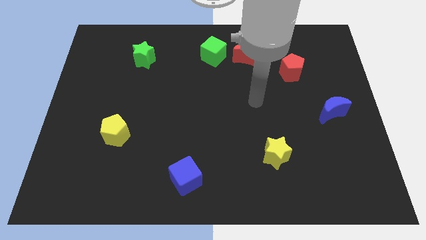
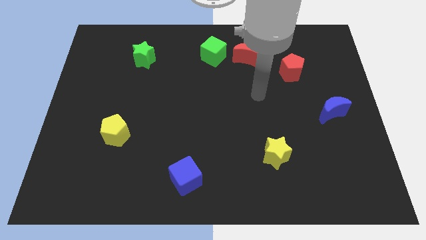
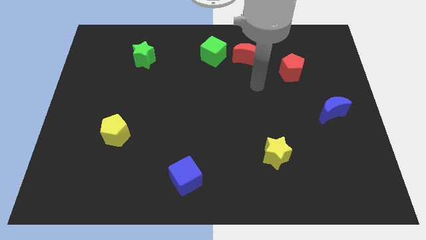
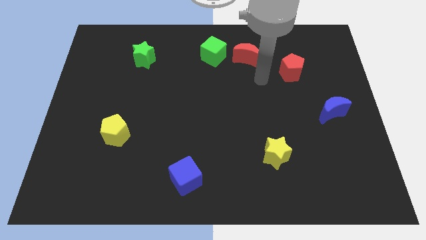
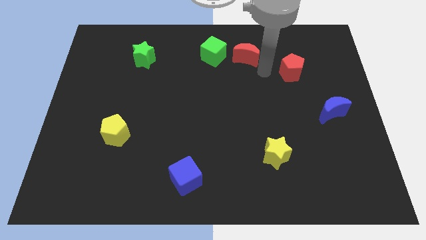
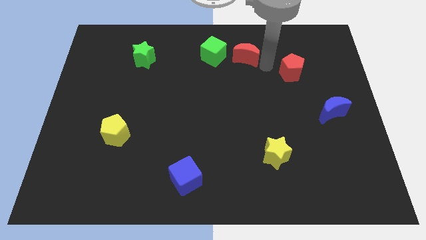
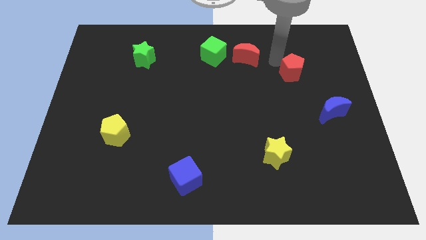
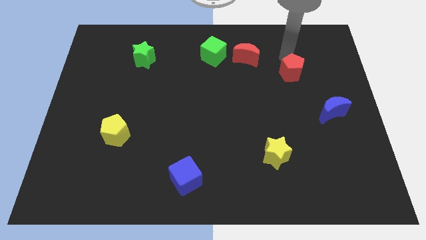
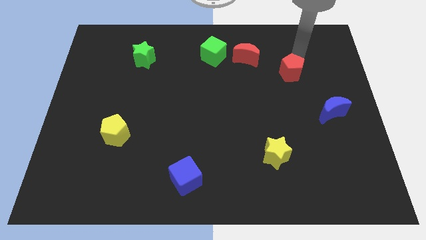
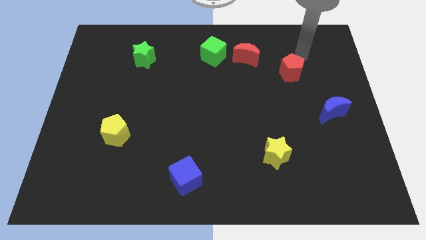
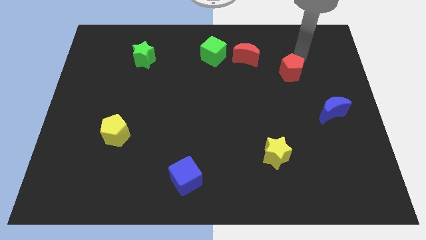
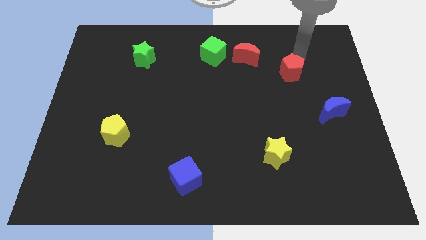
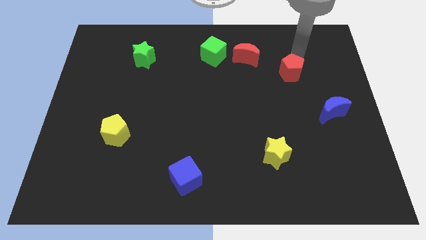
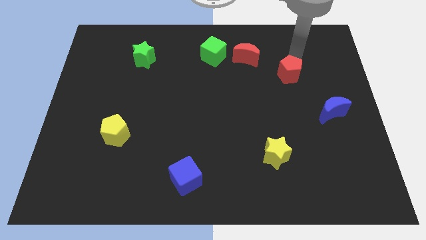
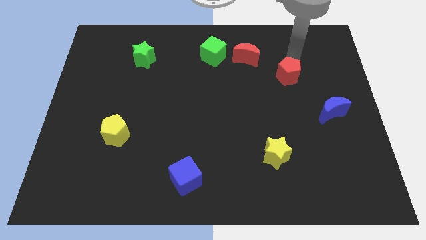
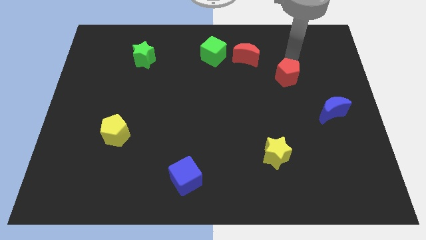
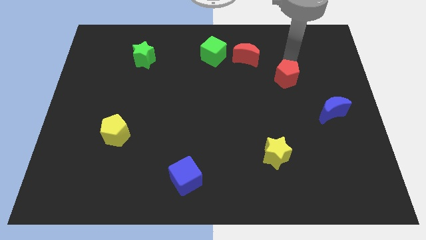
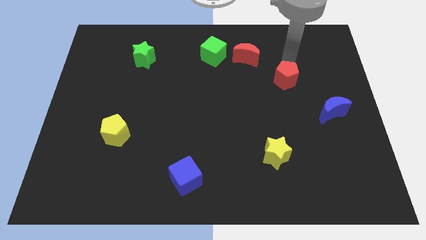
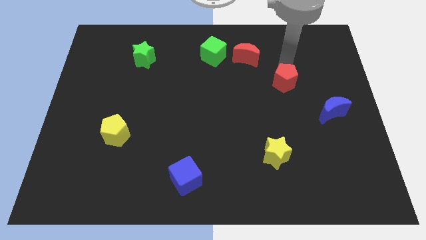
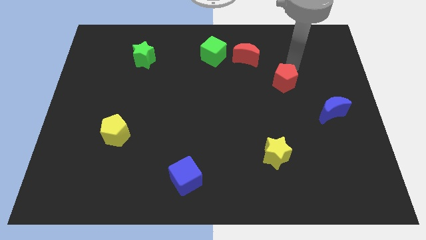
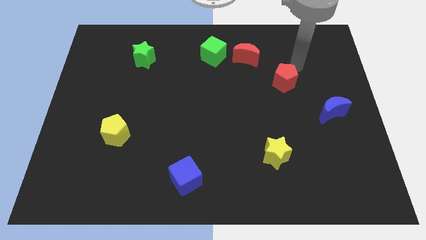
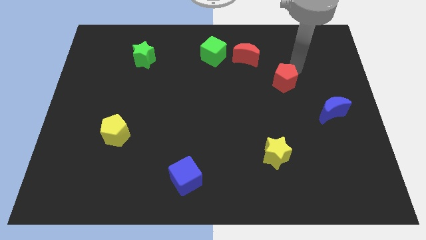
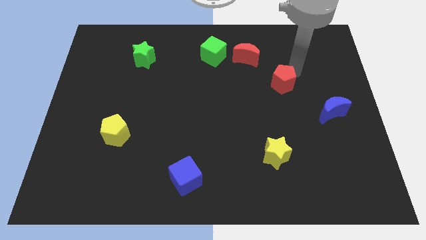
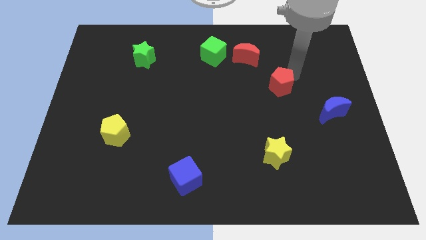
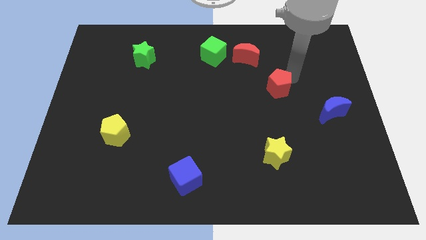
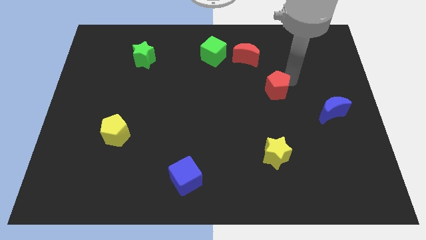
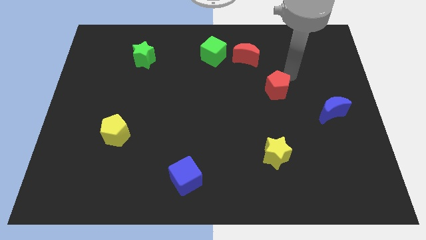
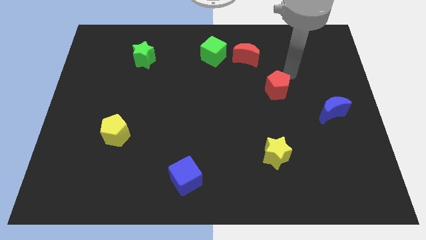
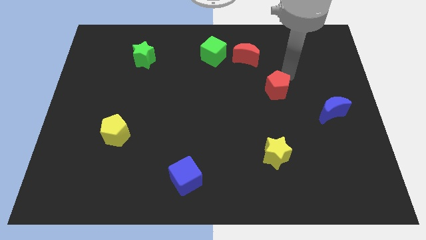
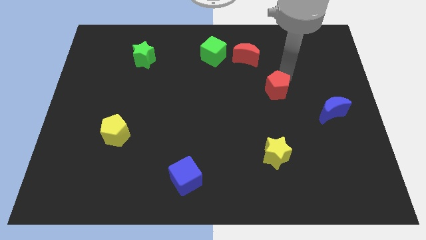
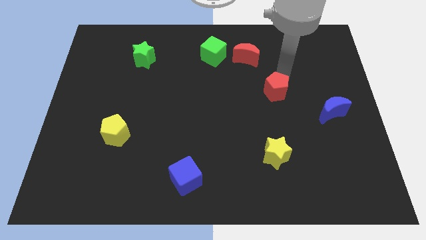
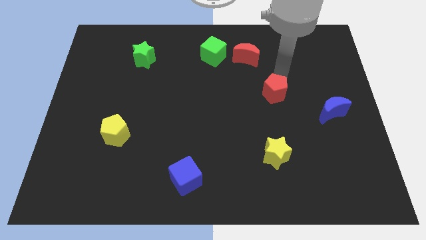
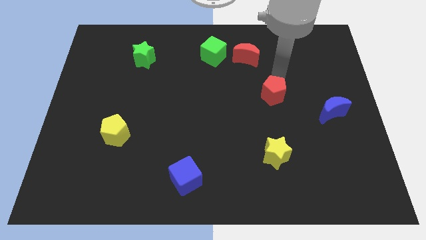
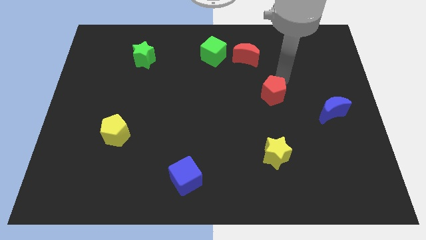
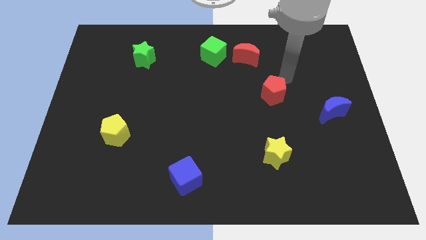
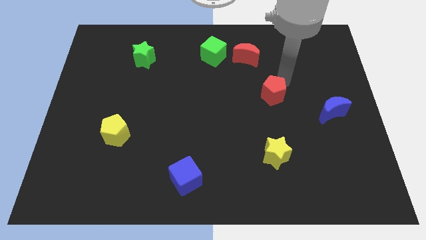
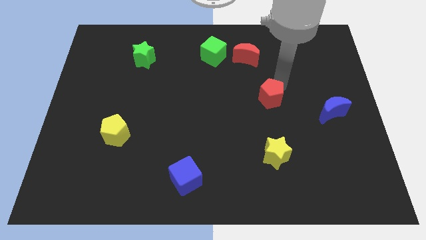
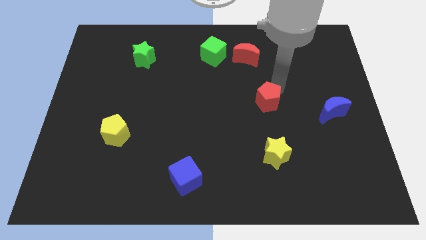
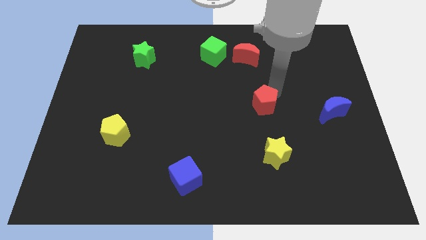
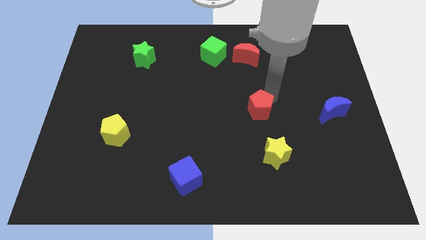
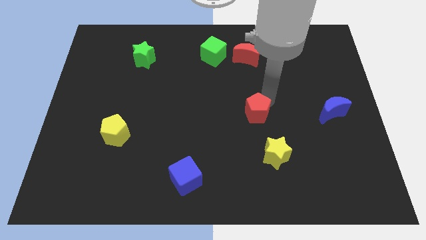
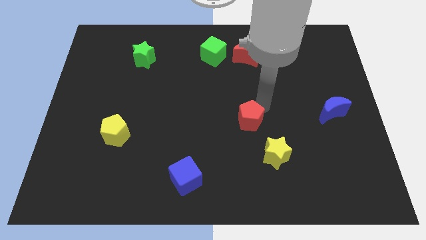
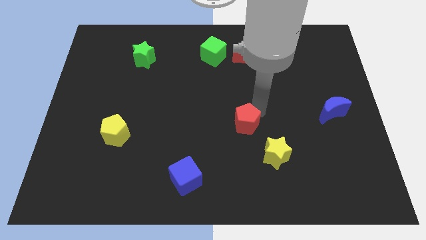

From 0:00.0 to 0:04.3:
push the red pentagon down and to the left

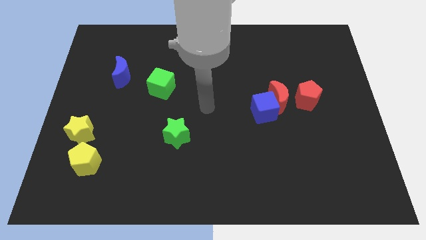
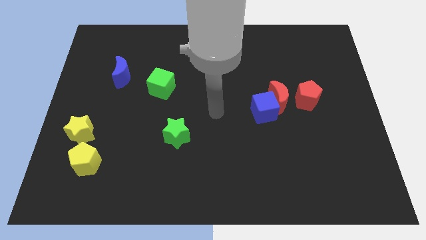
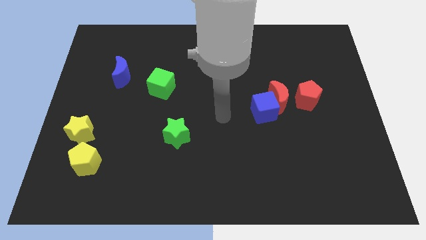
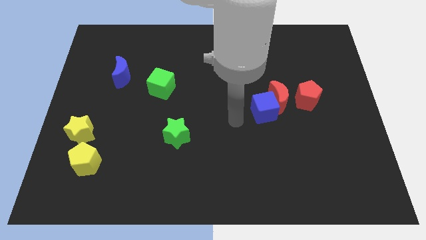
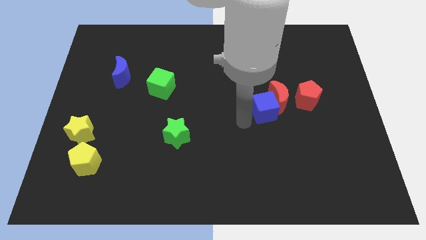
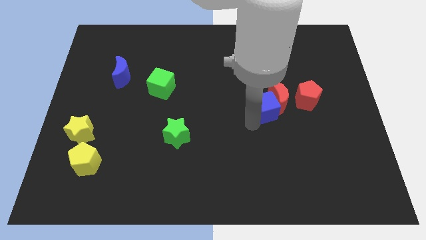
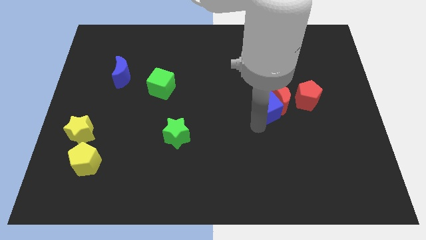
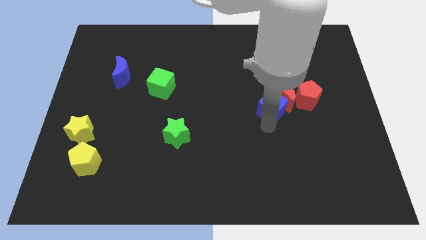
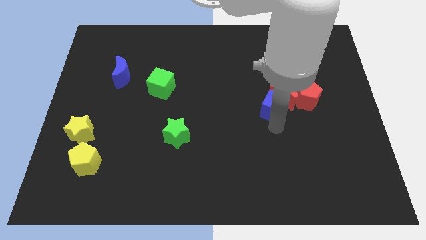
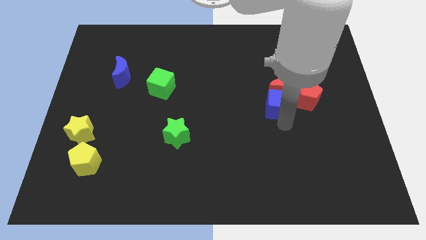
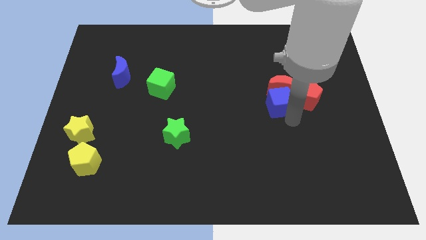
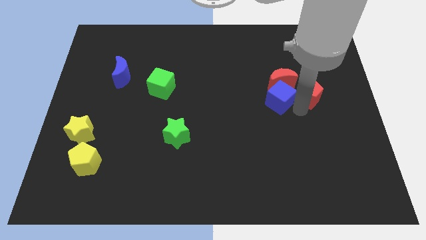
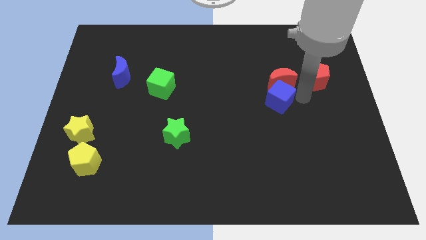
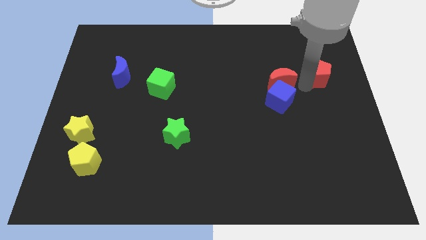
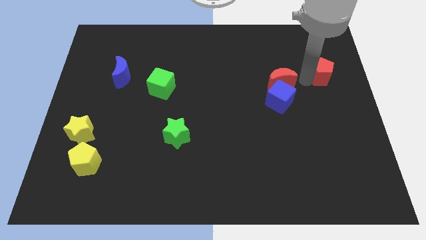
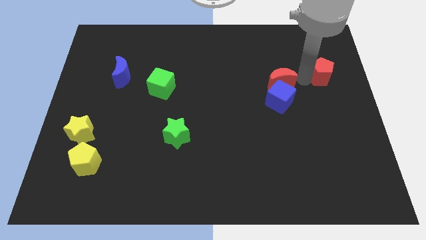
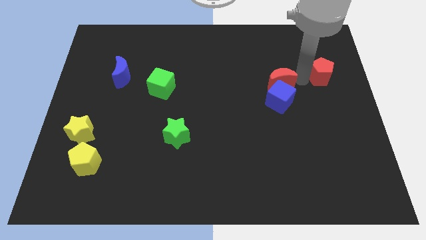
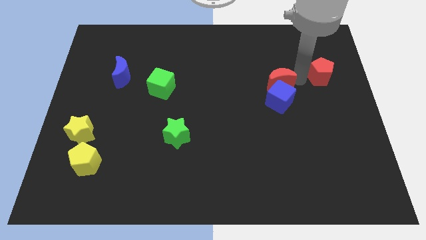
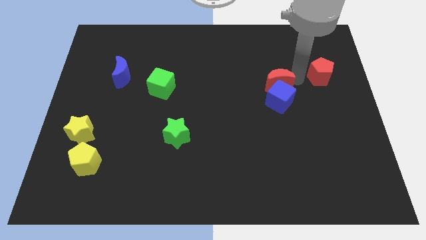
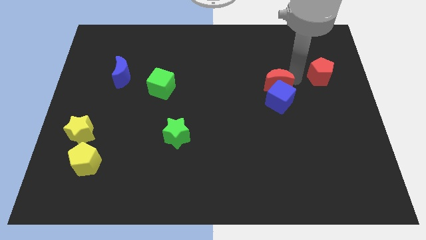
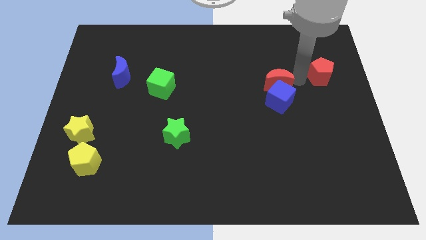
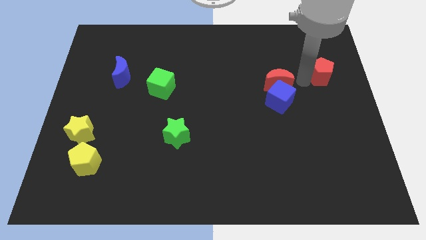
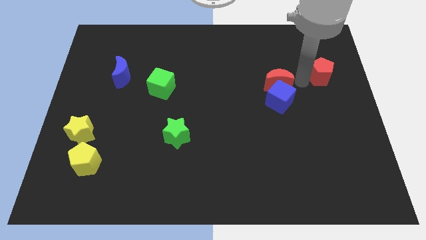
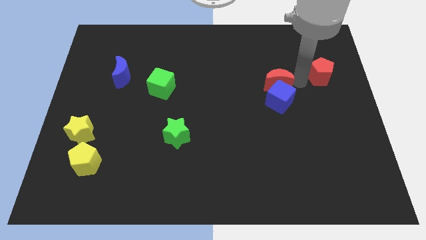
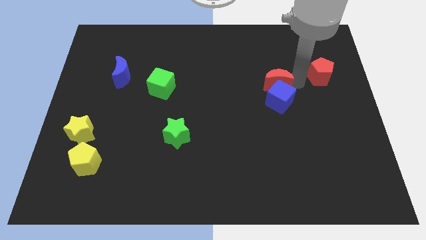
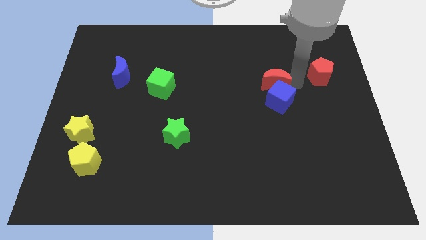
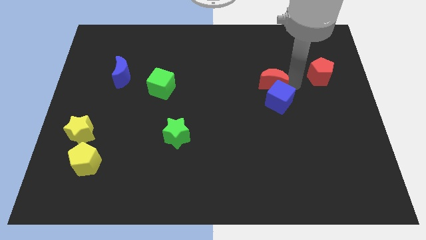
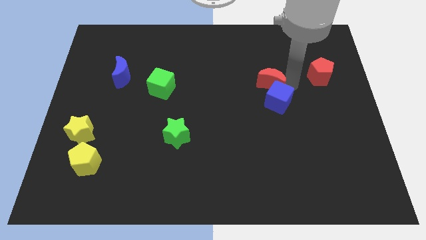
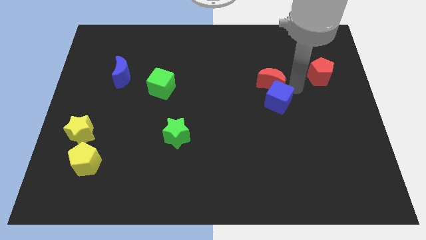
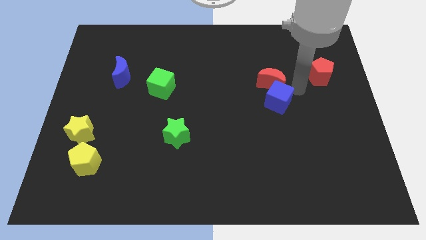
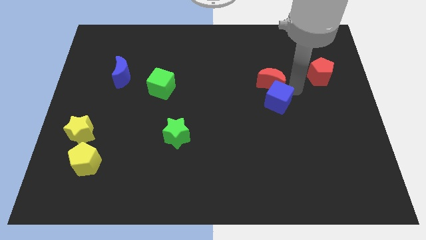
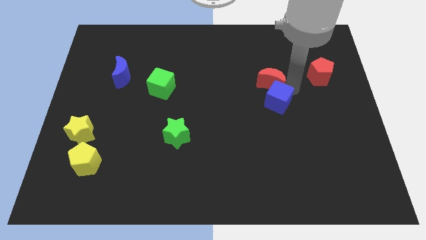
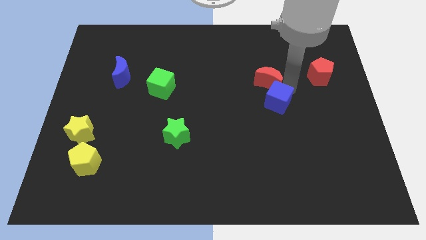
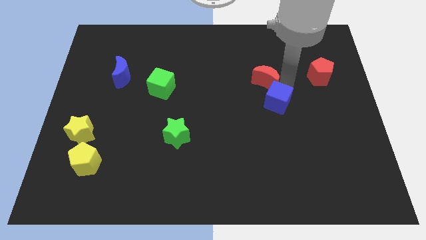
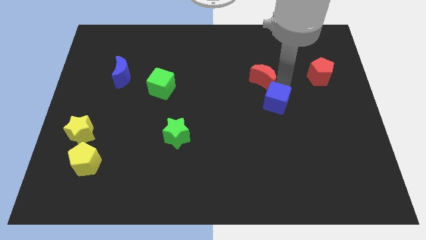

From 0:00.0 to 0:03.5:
slide the red moon diagonally upwards and left somewhat

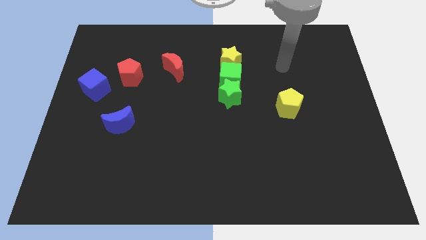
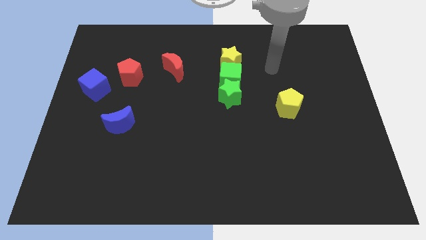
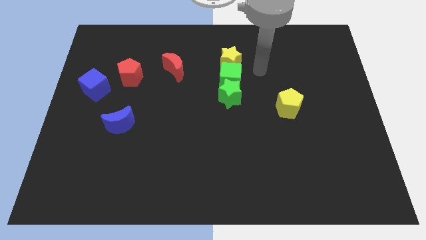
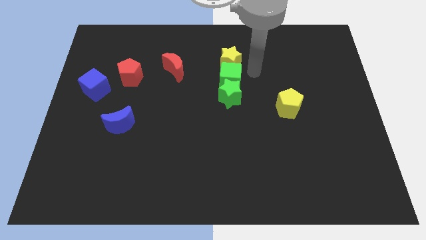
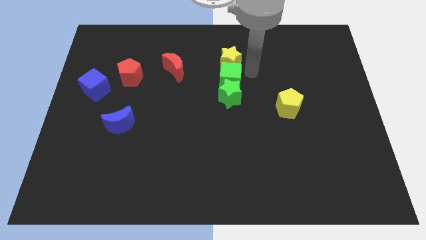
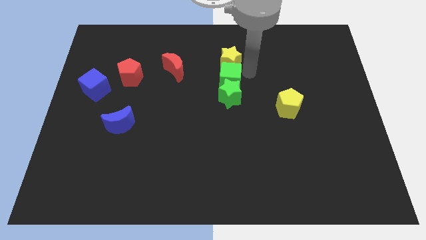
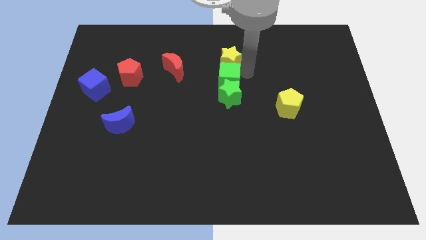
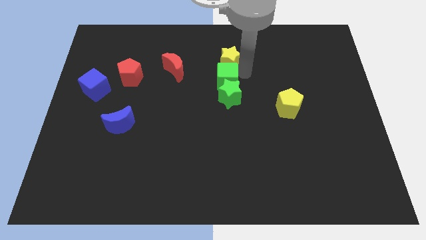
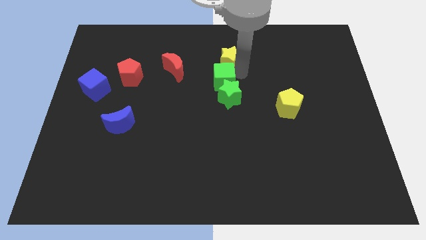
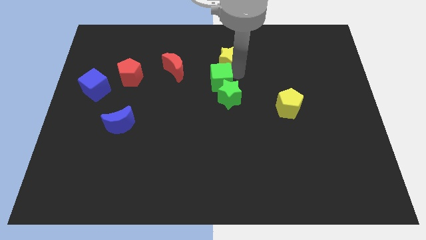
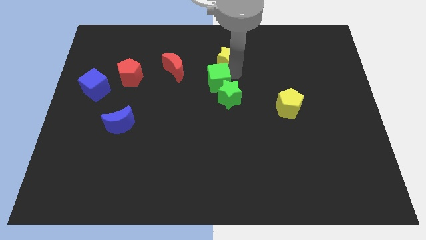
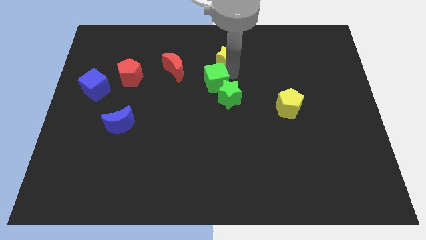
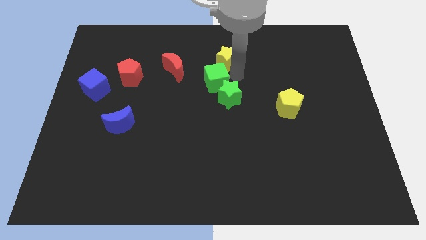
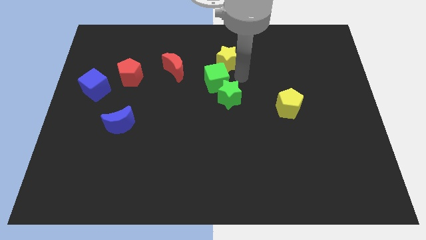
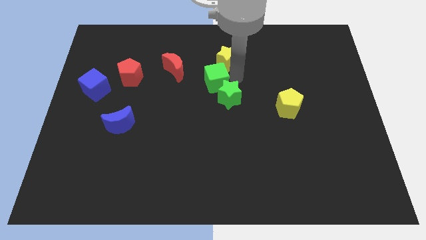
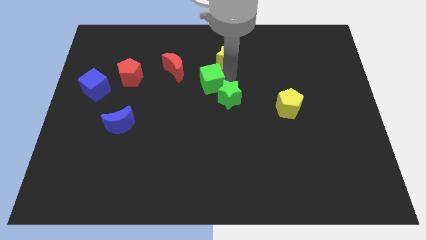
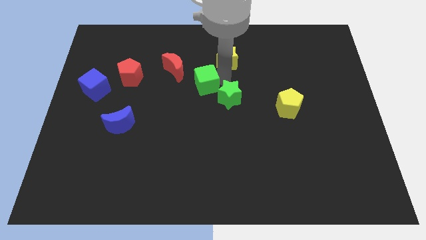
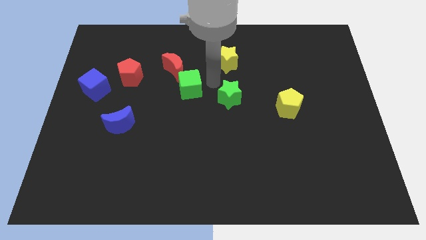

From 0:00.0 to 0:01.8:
slightly slide the green cube to the left
